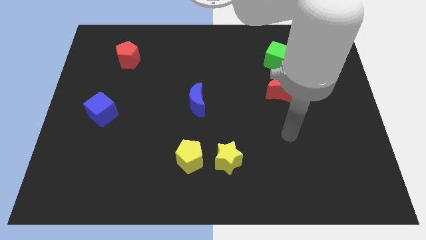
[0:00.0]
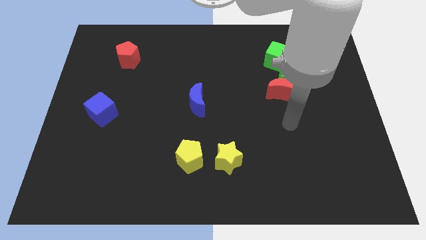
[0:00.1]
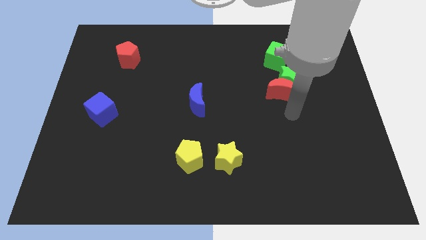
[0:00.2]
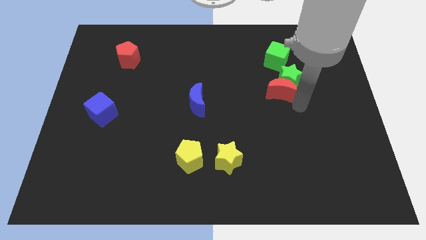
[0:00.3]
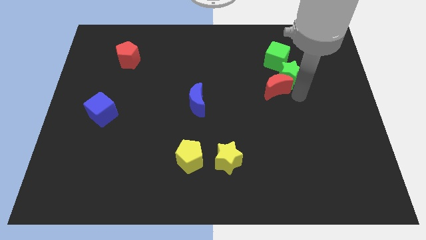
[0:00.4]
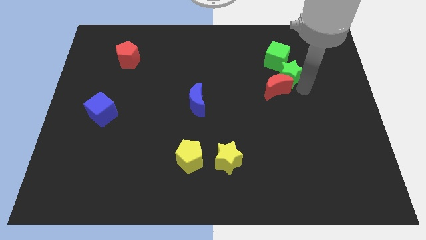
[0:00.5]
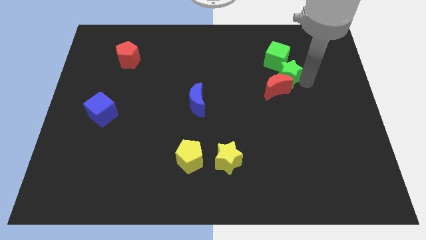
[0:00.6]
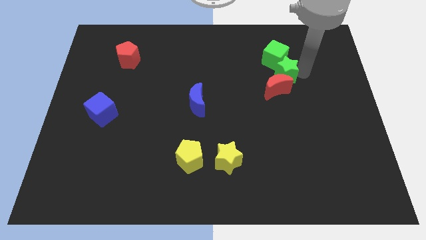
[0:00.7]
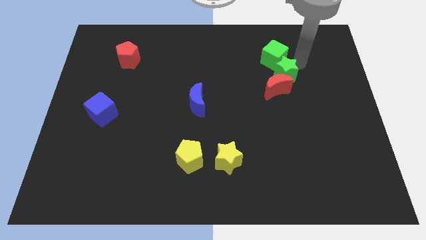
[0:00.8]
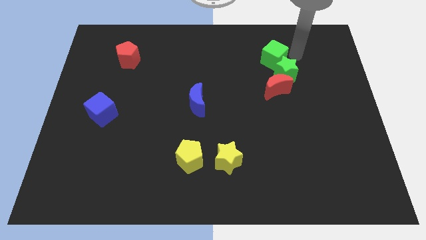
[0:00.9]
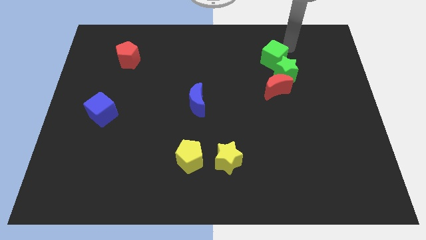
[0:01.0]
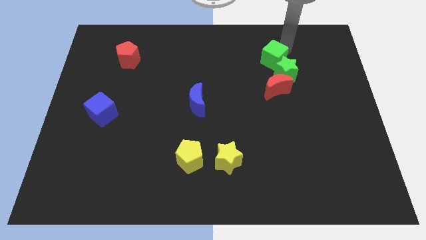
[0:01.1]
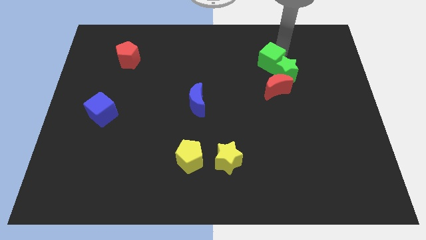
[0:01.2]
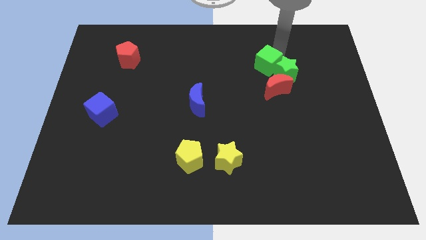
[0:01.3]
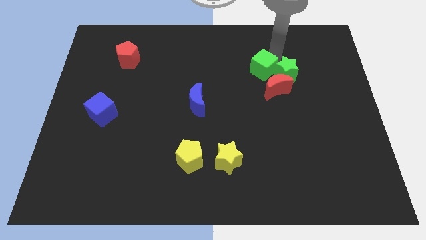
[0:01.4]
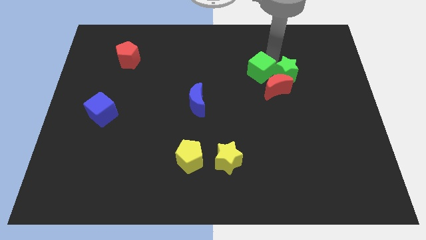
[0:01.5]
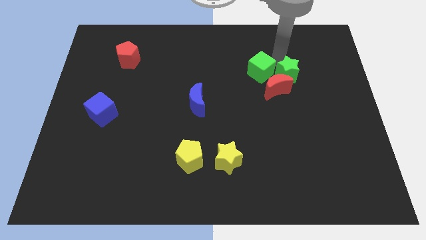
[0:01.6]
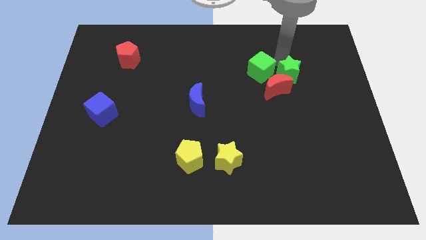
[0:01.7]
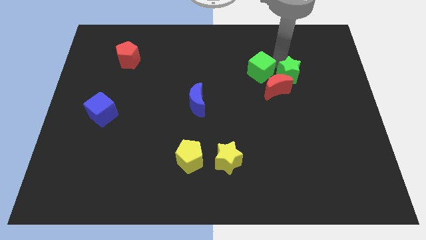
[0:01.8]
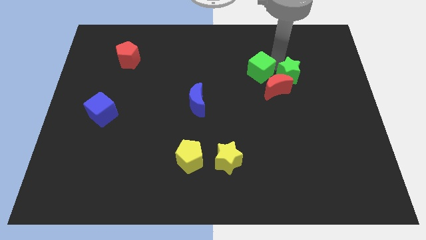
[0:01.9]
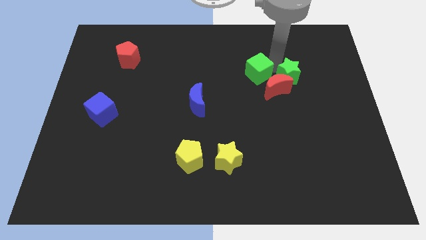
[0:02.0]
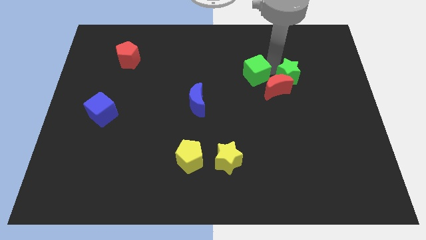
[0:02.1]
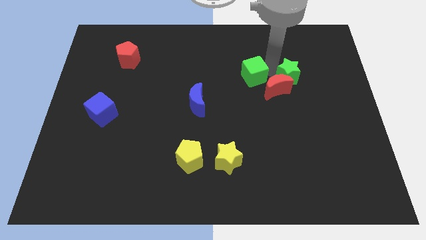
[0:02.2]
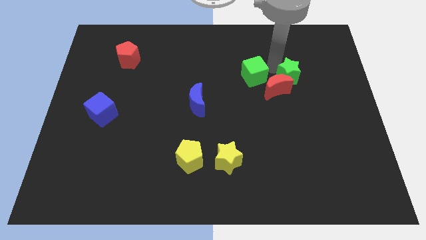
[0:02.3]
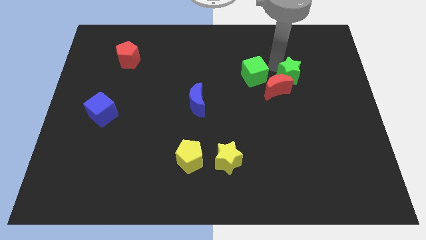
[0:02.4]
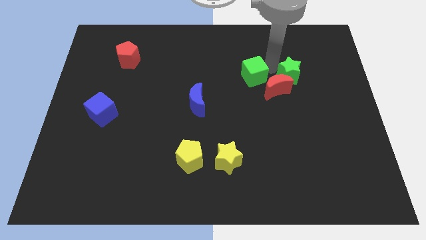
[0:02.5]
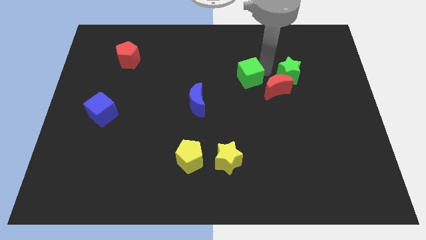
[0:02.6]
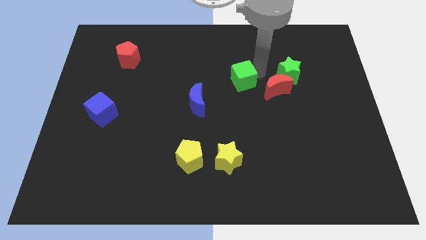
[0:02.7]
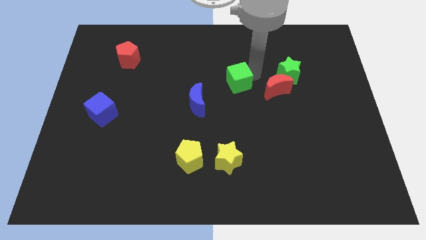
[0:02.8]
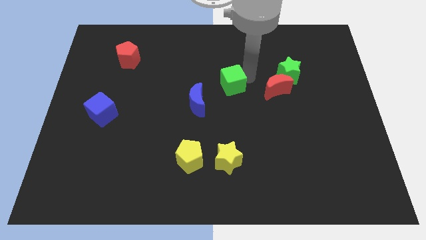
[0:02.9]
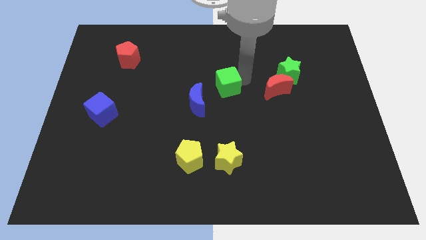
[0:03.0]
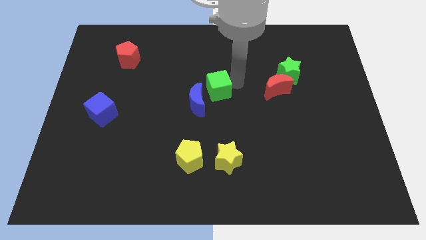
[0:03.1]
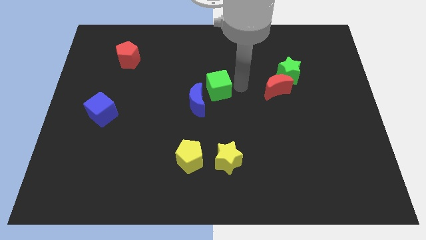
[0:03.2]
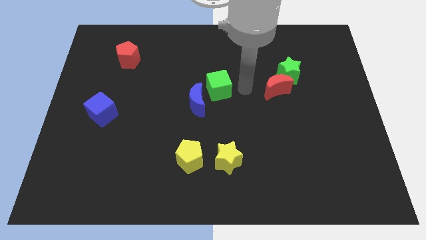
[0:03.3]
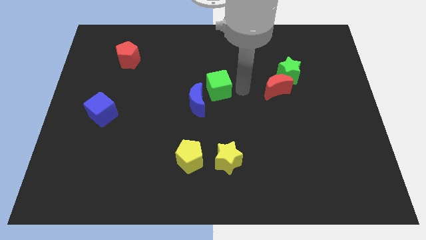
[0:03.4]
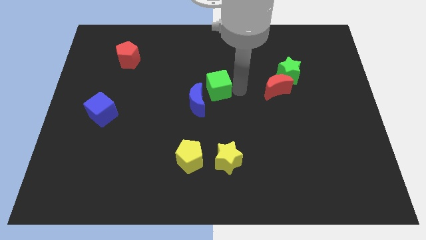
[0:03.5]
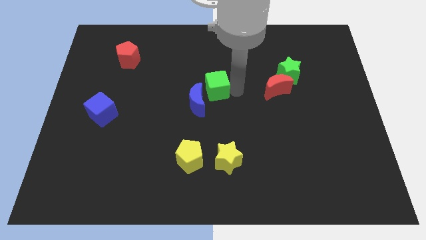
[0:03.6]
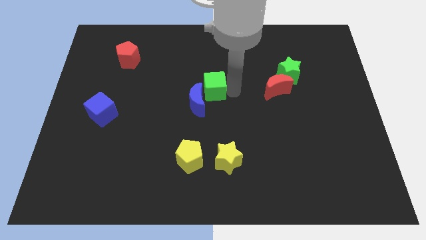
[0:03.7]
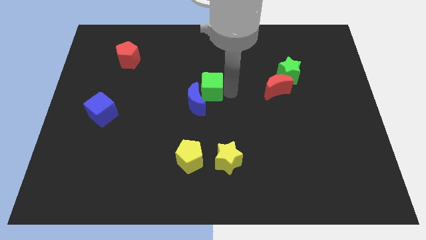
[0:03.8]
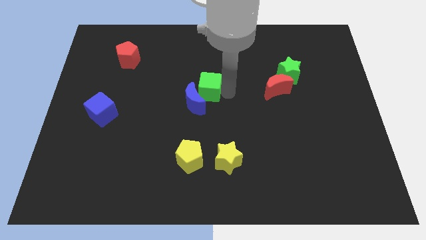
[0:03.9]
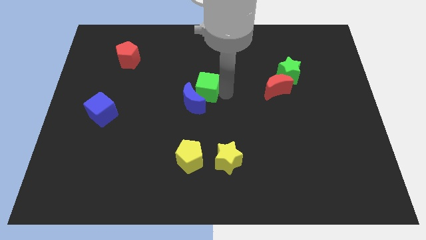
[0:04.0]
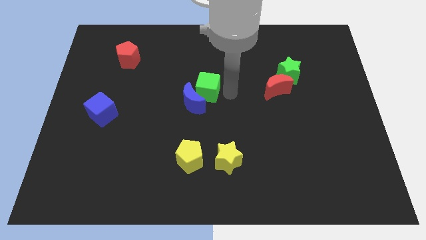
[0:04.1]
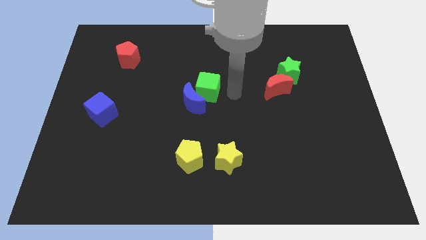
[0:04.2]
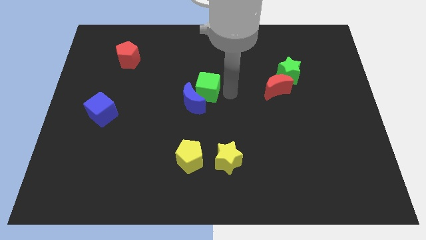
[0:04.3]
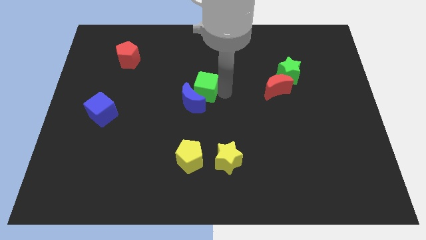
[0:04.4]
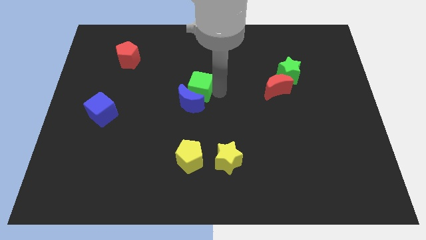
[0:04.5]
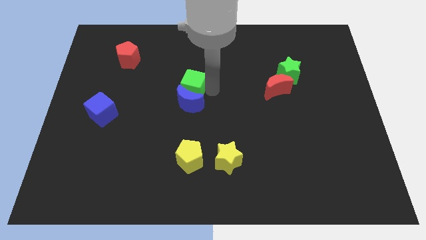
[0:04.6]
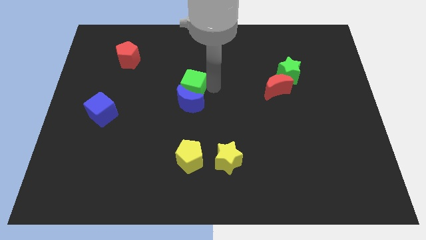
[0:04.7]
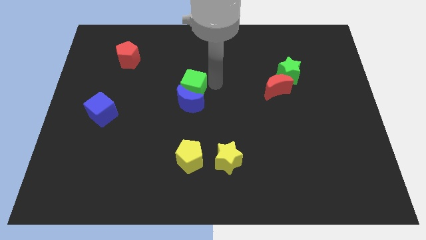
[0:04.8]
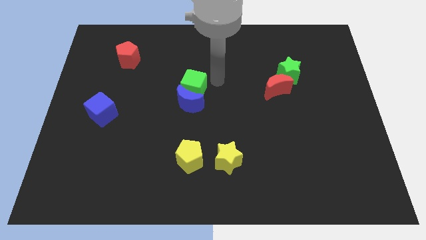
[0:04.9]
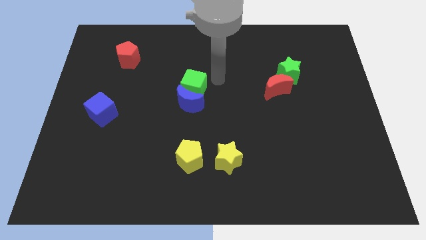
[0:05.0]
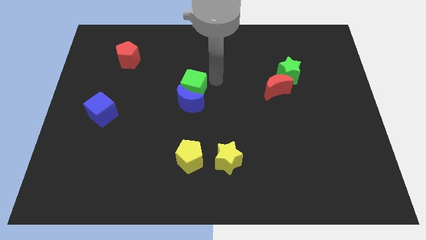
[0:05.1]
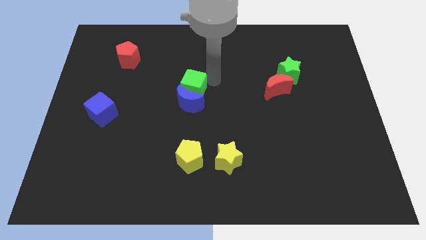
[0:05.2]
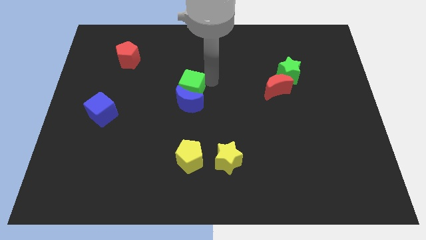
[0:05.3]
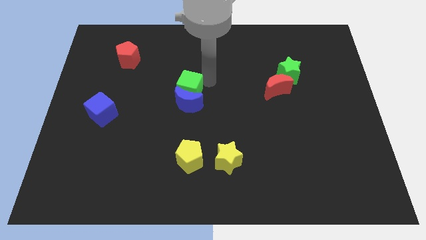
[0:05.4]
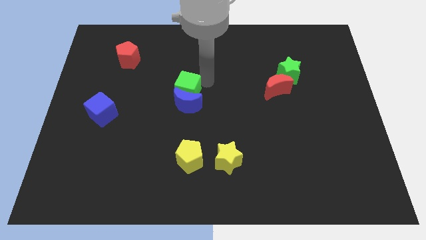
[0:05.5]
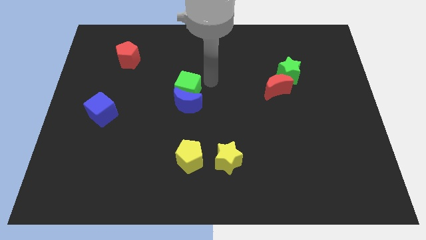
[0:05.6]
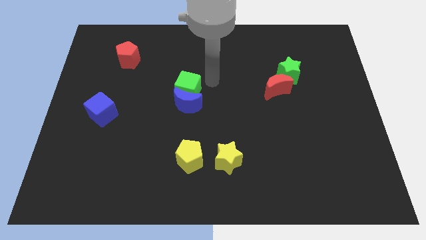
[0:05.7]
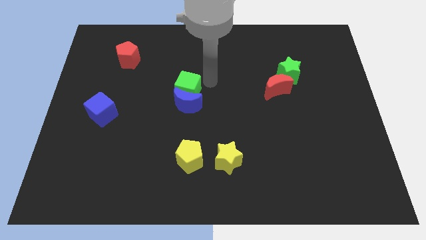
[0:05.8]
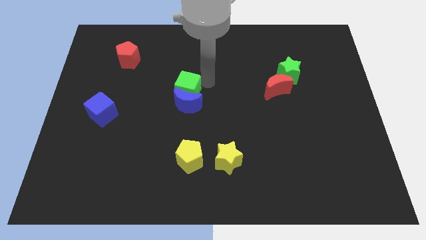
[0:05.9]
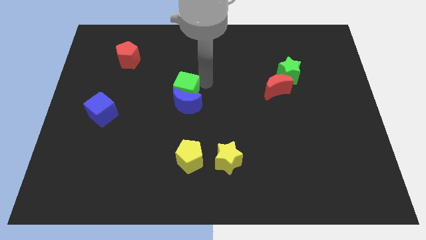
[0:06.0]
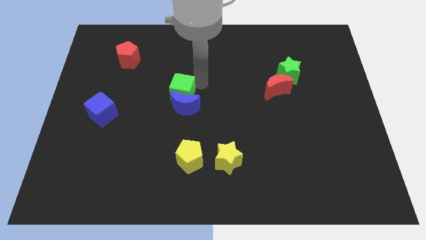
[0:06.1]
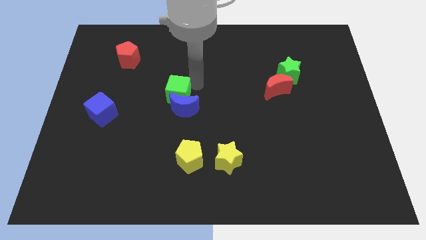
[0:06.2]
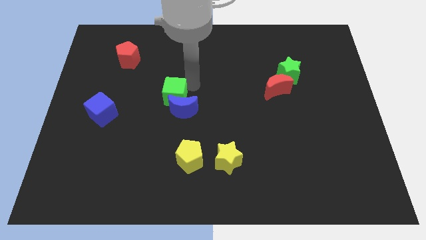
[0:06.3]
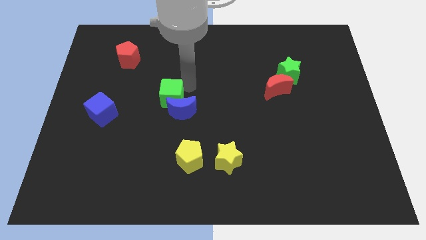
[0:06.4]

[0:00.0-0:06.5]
put the green cube left of the blue moon

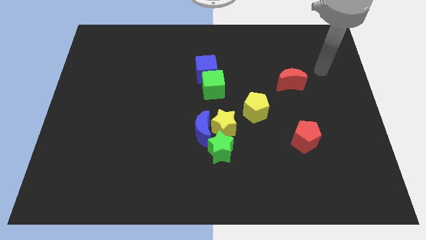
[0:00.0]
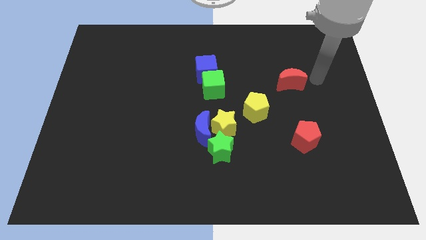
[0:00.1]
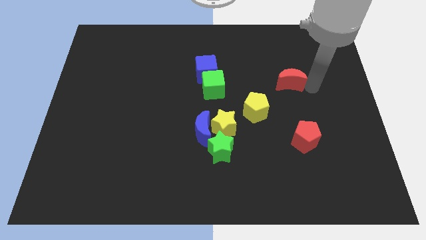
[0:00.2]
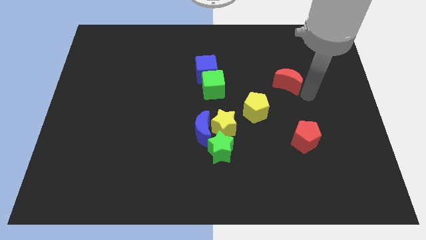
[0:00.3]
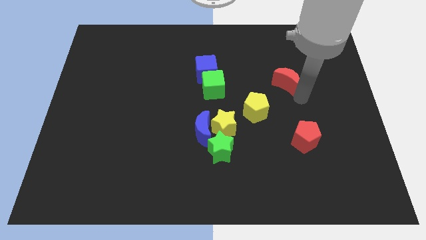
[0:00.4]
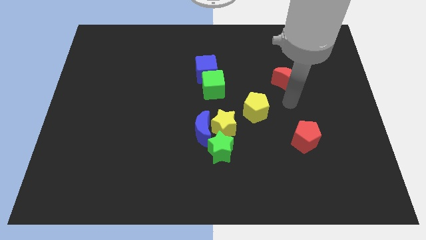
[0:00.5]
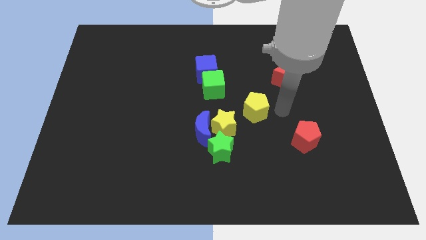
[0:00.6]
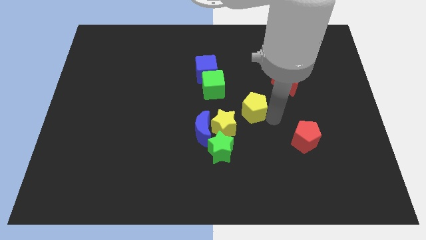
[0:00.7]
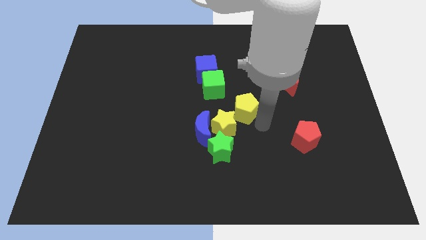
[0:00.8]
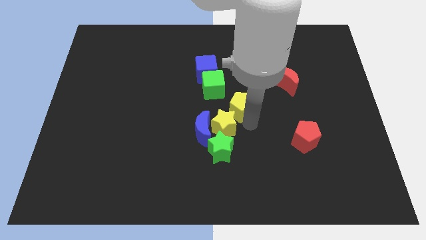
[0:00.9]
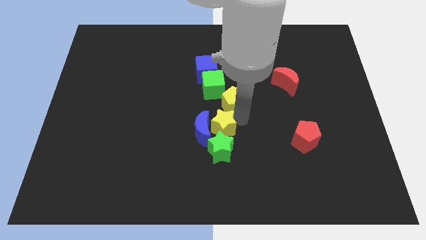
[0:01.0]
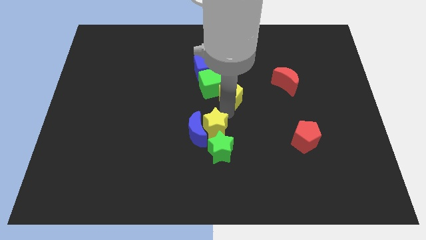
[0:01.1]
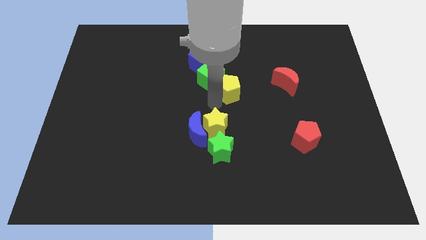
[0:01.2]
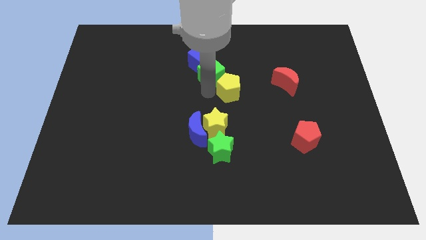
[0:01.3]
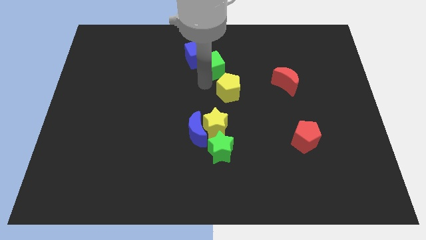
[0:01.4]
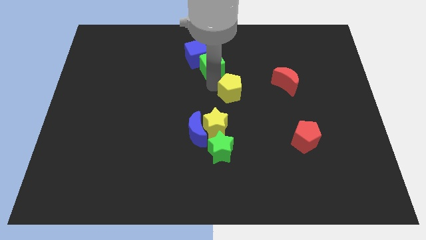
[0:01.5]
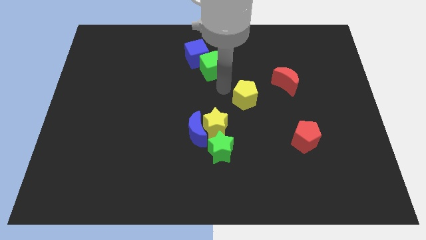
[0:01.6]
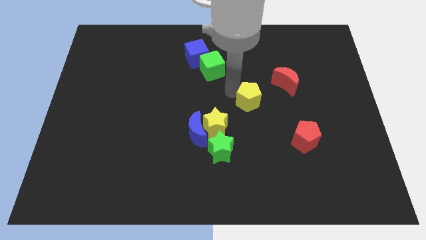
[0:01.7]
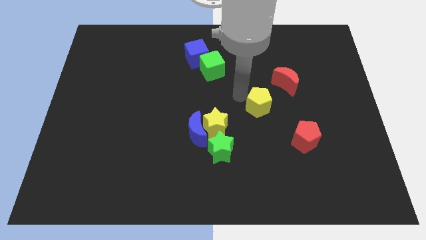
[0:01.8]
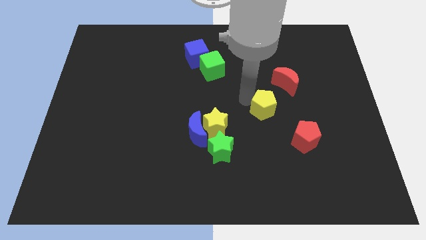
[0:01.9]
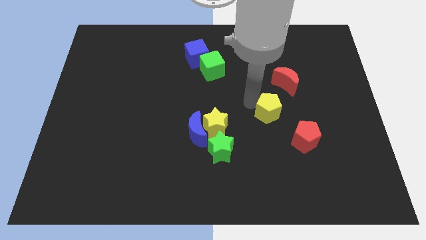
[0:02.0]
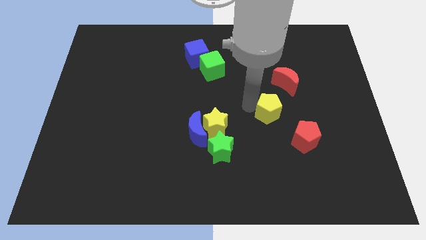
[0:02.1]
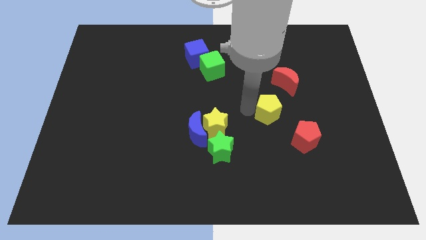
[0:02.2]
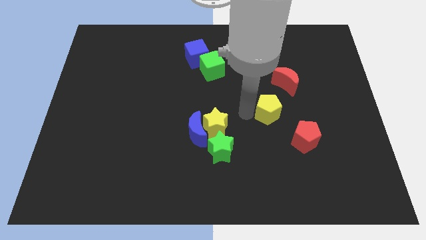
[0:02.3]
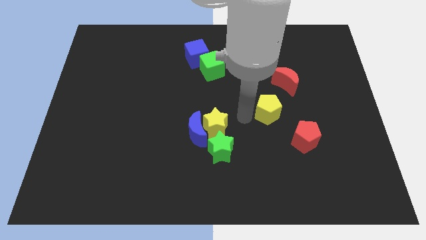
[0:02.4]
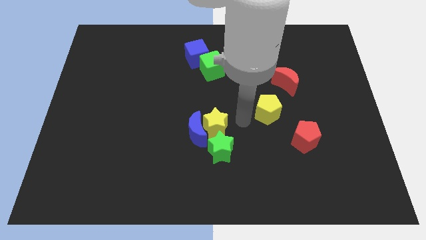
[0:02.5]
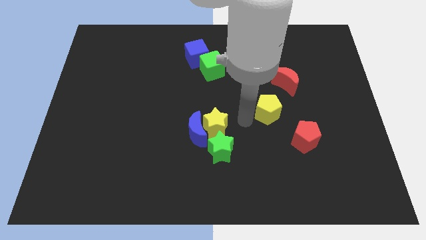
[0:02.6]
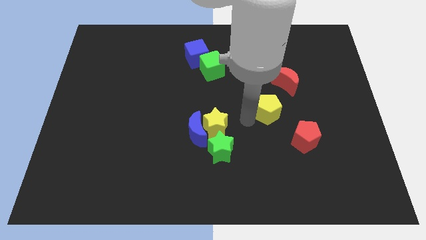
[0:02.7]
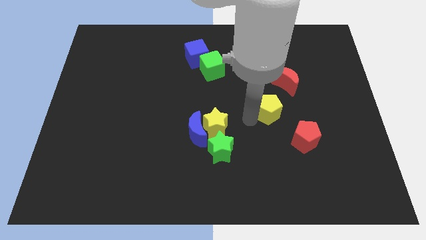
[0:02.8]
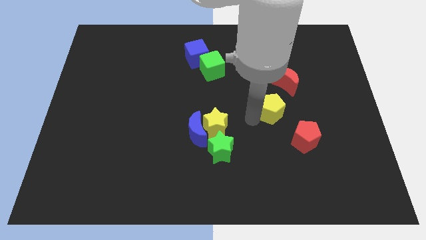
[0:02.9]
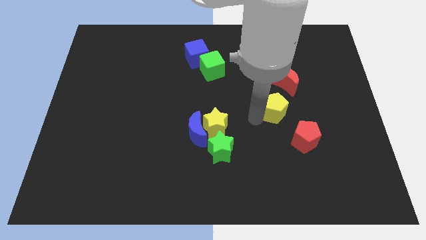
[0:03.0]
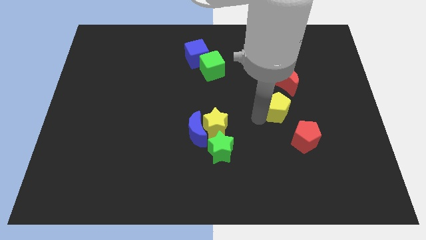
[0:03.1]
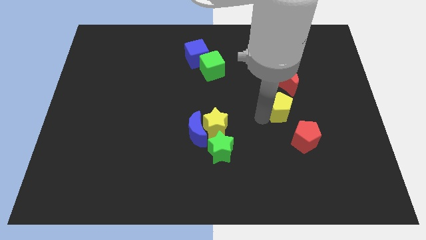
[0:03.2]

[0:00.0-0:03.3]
move the yellow pentagon to the top side of the red pentagon
